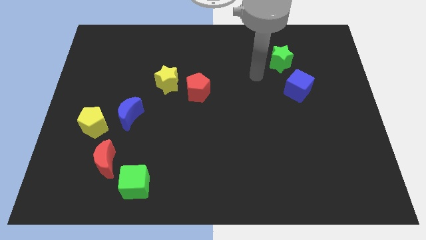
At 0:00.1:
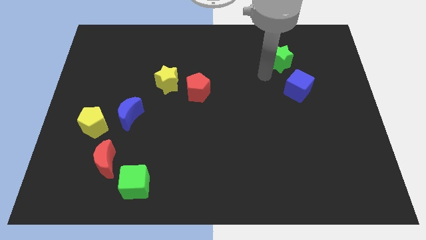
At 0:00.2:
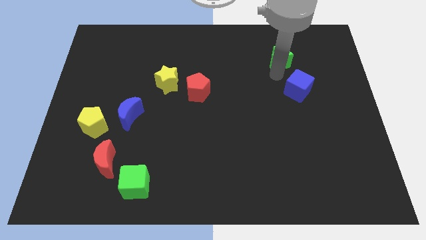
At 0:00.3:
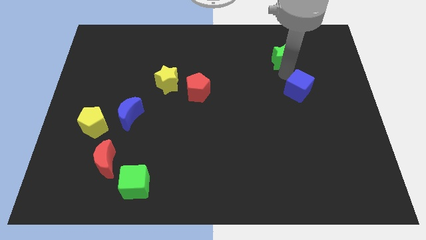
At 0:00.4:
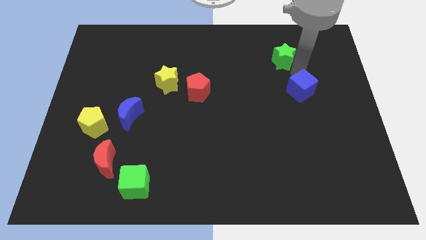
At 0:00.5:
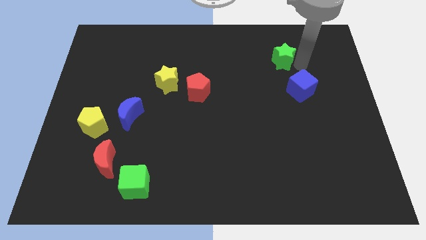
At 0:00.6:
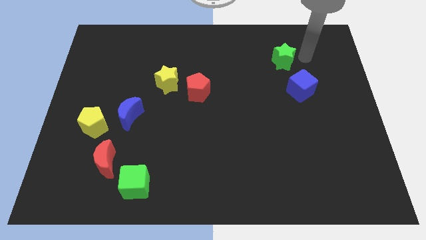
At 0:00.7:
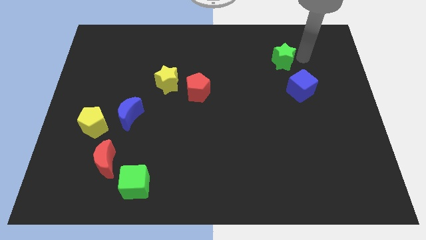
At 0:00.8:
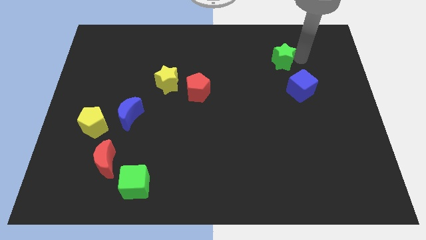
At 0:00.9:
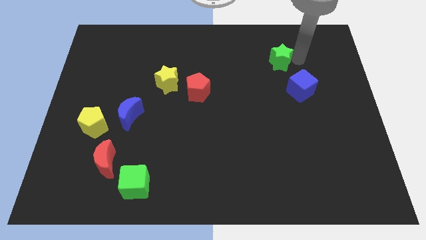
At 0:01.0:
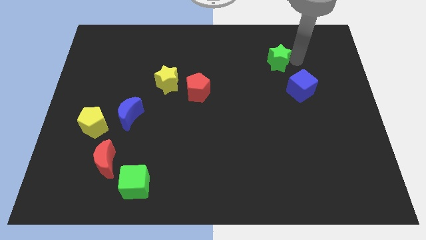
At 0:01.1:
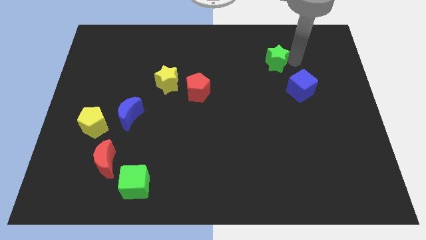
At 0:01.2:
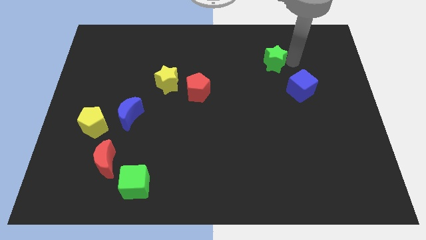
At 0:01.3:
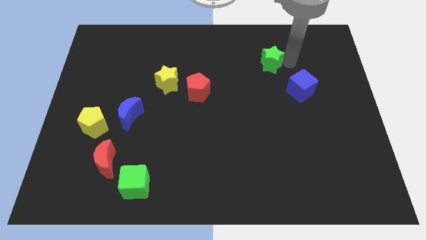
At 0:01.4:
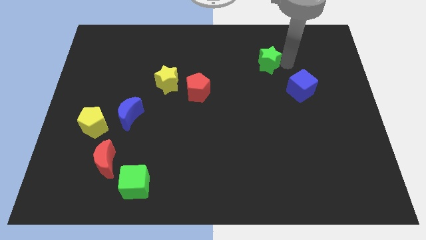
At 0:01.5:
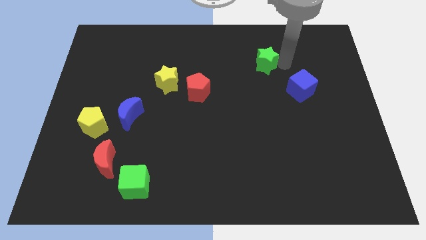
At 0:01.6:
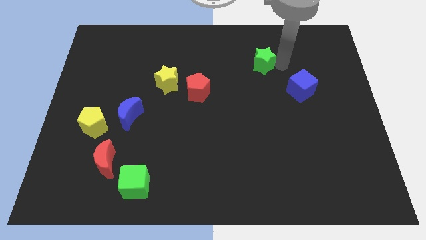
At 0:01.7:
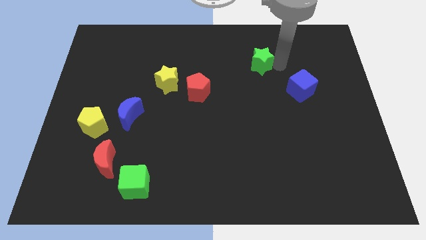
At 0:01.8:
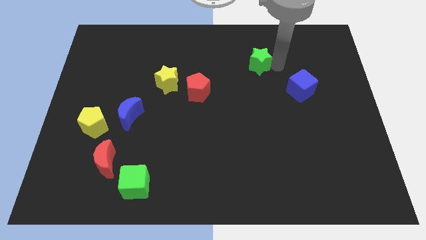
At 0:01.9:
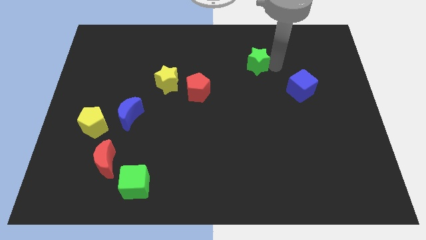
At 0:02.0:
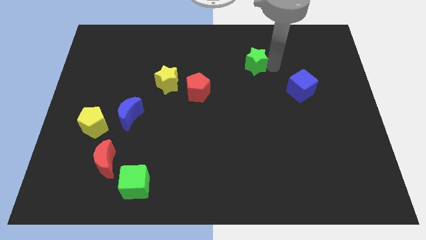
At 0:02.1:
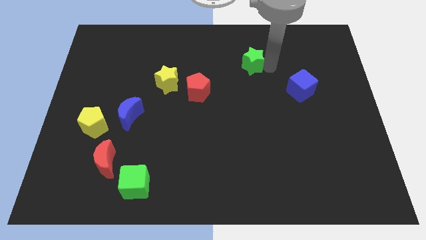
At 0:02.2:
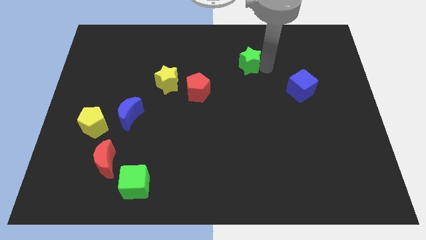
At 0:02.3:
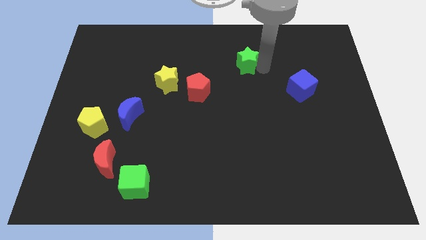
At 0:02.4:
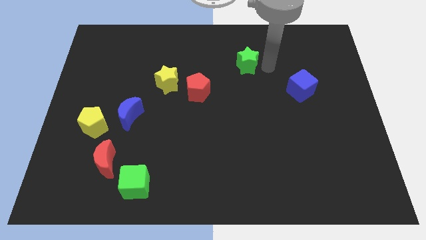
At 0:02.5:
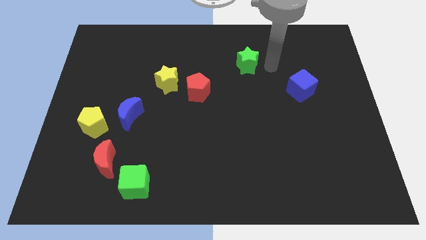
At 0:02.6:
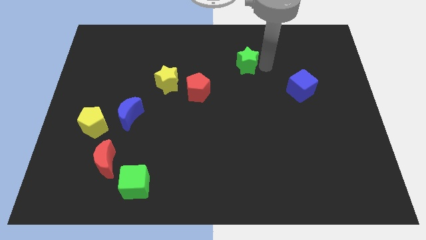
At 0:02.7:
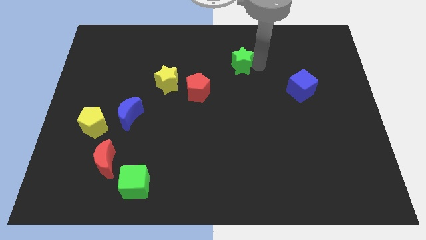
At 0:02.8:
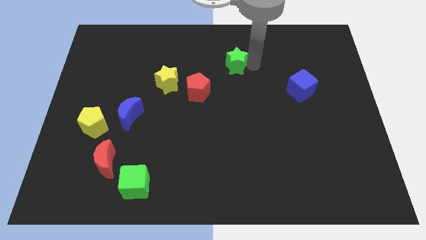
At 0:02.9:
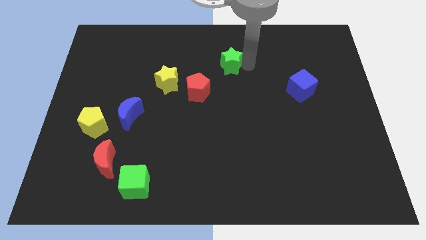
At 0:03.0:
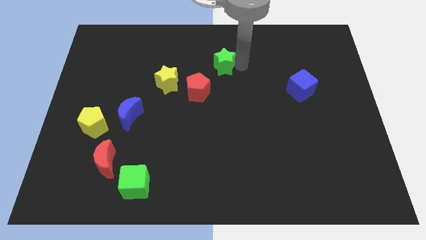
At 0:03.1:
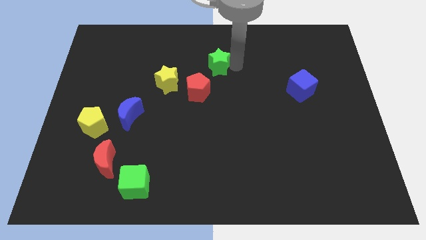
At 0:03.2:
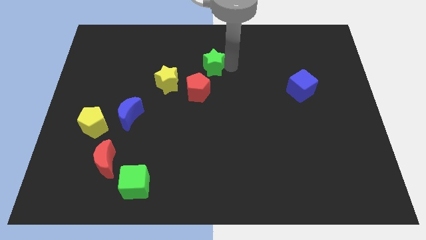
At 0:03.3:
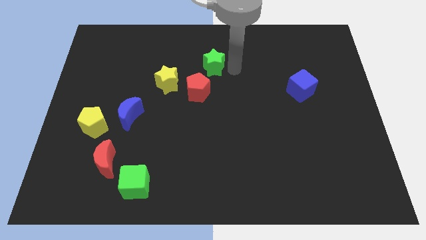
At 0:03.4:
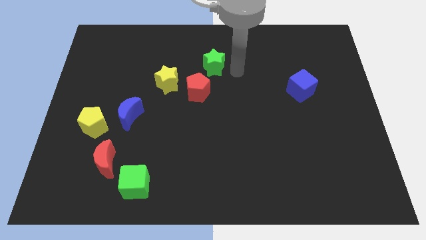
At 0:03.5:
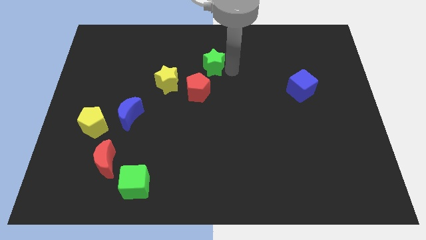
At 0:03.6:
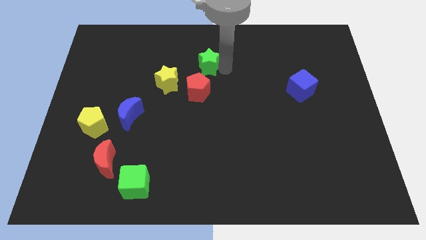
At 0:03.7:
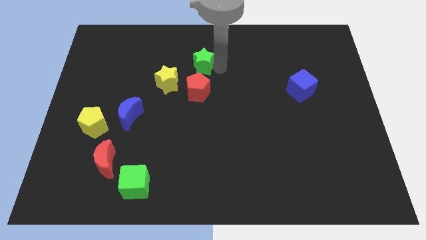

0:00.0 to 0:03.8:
slide the green star to the left

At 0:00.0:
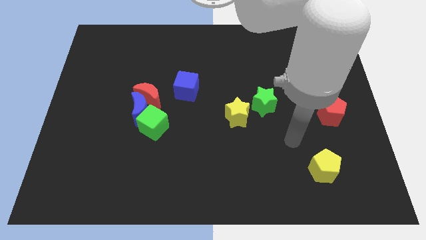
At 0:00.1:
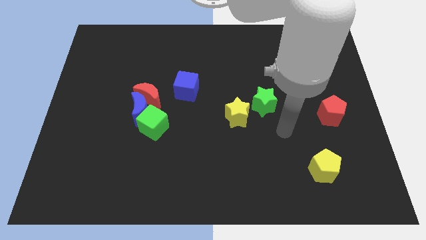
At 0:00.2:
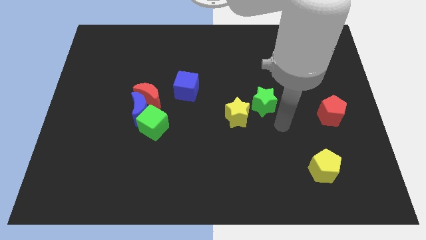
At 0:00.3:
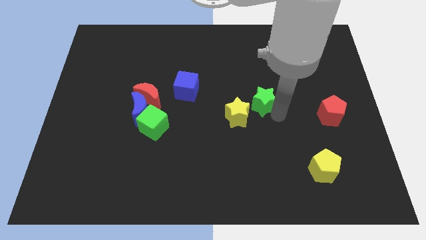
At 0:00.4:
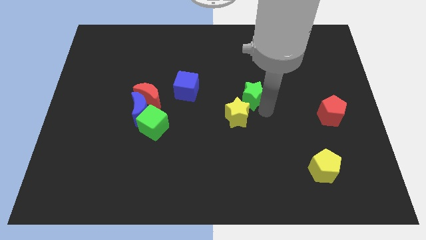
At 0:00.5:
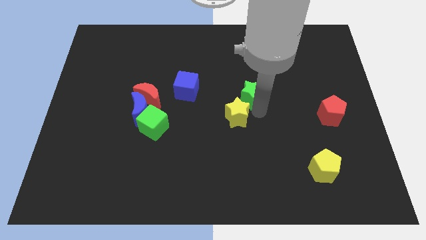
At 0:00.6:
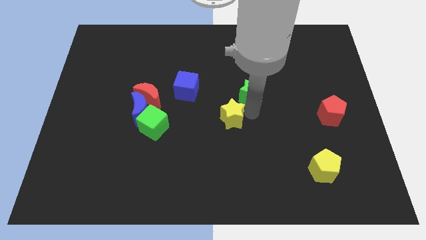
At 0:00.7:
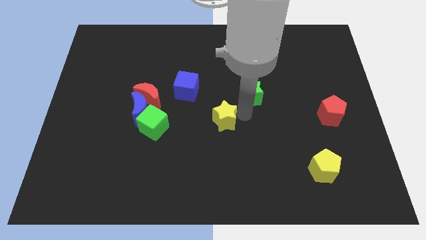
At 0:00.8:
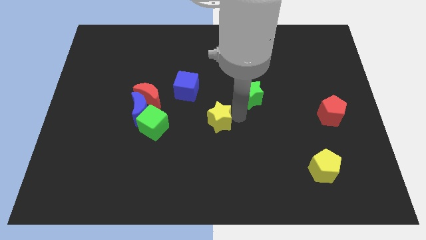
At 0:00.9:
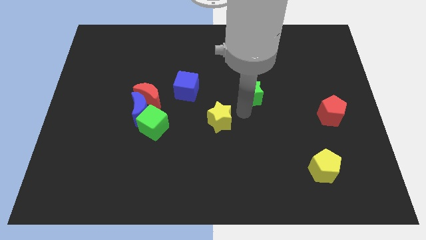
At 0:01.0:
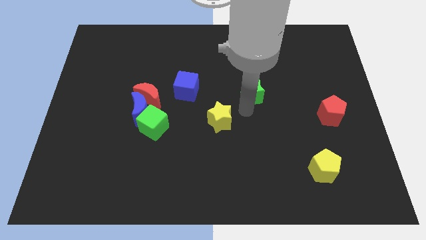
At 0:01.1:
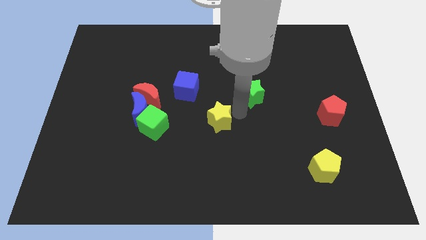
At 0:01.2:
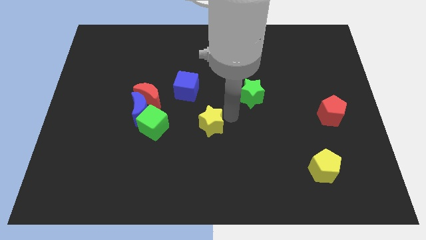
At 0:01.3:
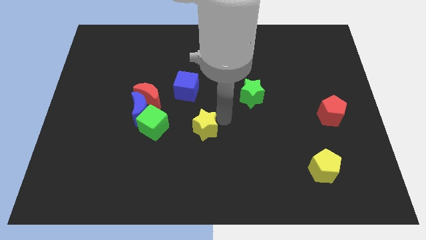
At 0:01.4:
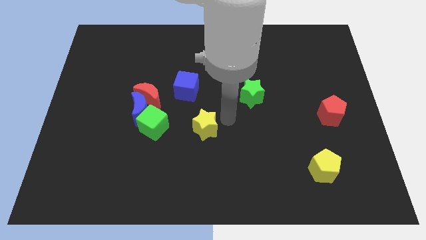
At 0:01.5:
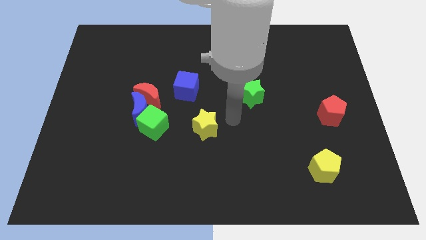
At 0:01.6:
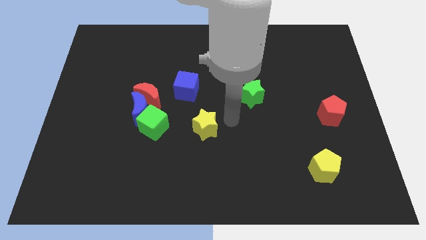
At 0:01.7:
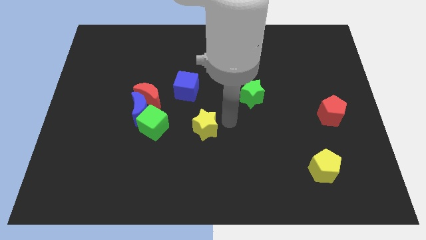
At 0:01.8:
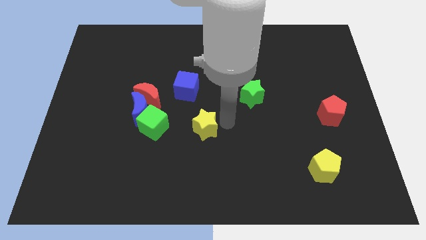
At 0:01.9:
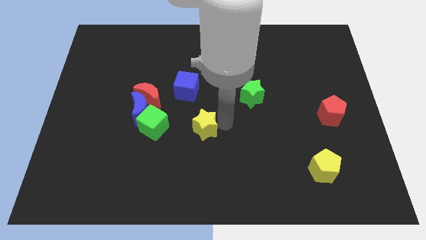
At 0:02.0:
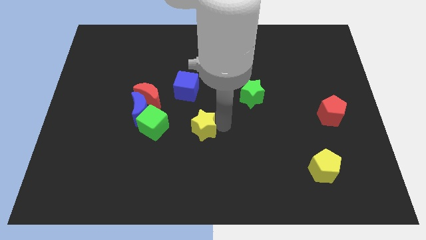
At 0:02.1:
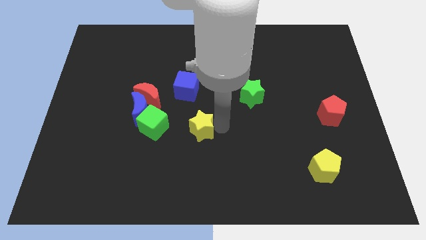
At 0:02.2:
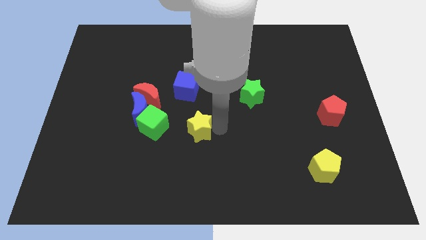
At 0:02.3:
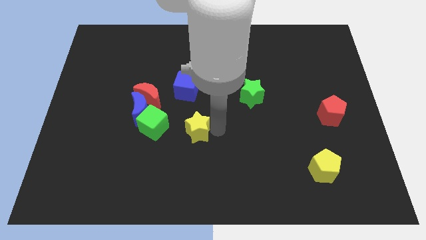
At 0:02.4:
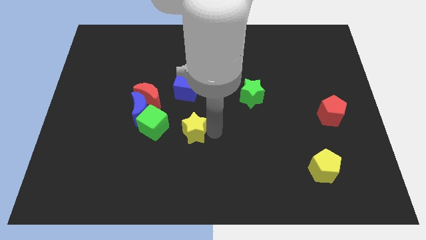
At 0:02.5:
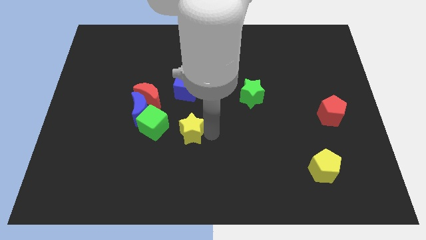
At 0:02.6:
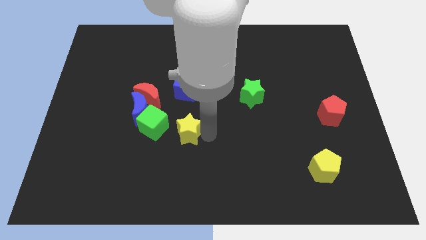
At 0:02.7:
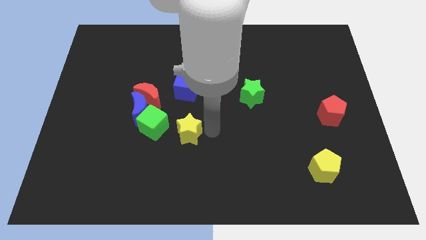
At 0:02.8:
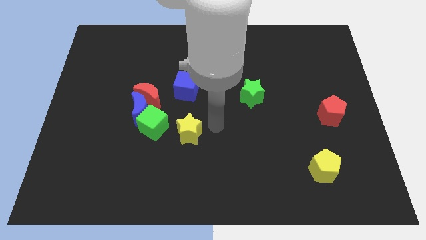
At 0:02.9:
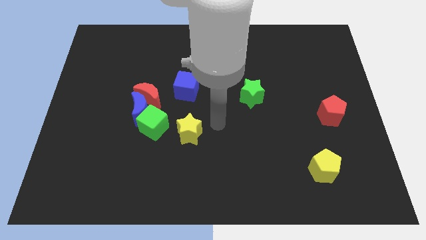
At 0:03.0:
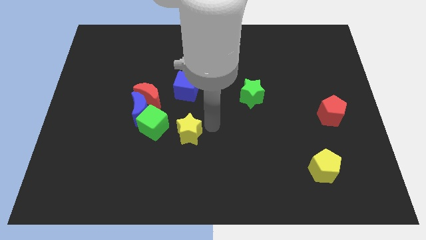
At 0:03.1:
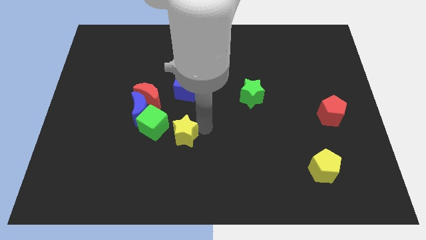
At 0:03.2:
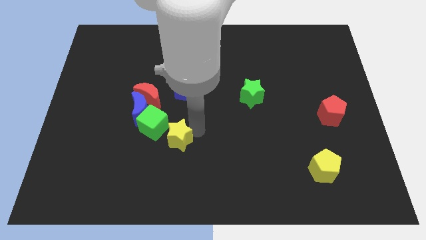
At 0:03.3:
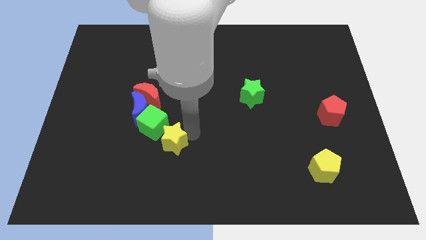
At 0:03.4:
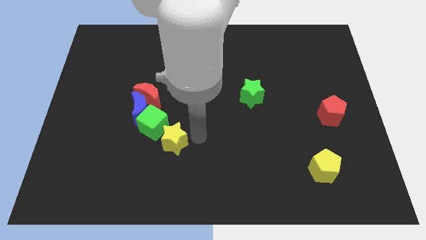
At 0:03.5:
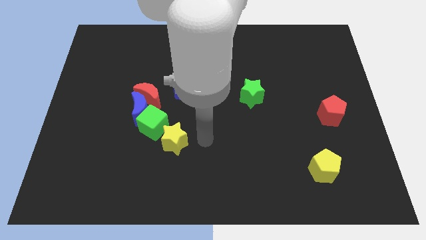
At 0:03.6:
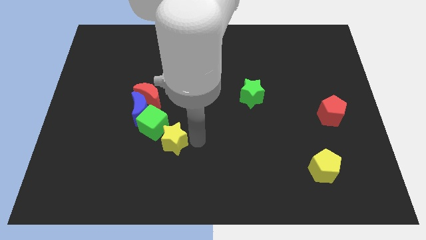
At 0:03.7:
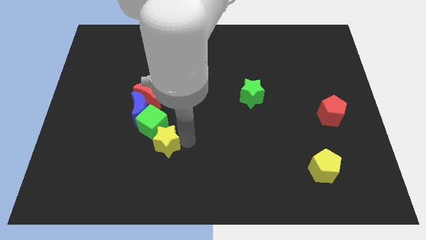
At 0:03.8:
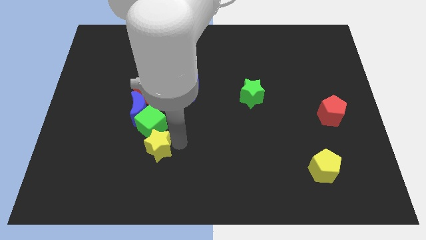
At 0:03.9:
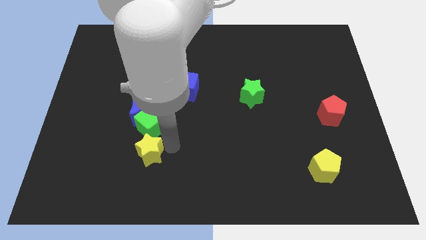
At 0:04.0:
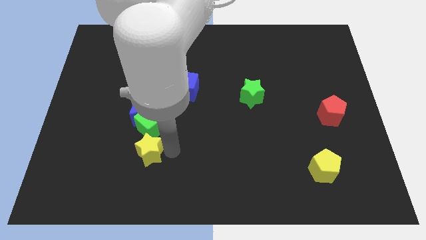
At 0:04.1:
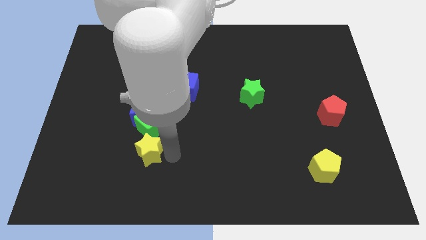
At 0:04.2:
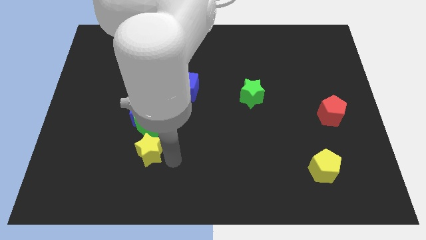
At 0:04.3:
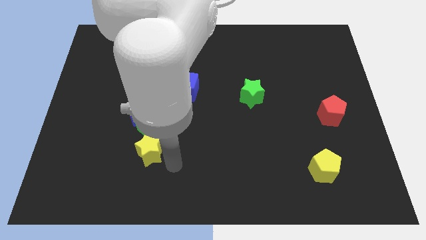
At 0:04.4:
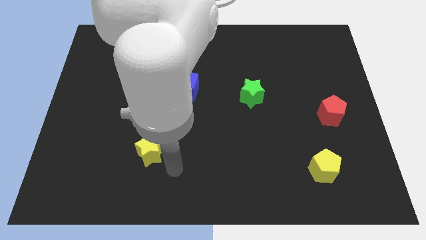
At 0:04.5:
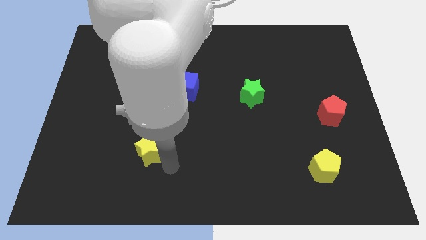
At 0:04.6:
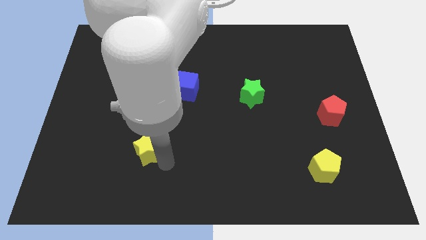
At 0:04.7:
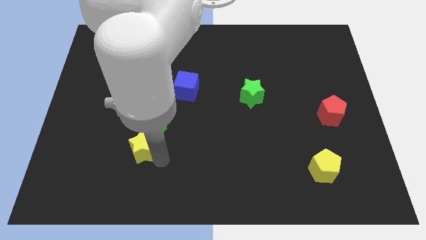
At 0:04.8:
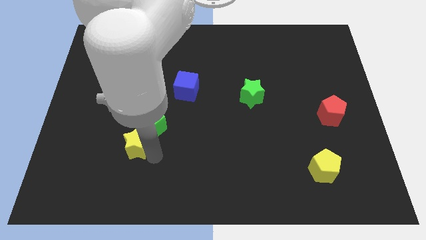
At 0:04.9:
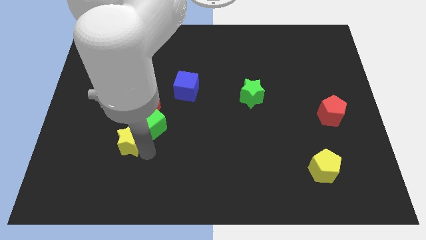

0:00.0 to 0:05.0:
move the yellow star to the left

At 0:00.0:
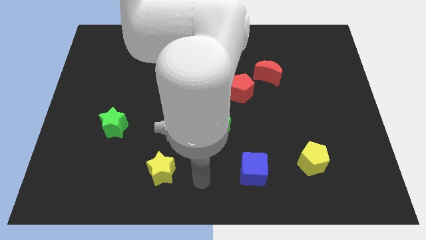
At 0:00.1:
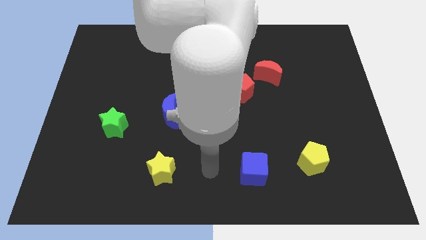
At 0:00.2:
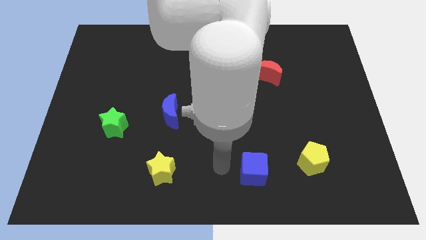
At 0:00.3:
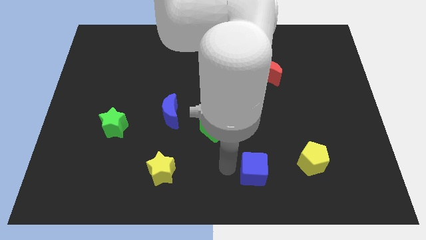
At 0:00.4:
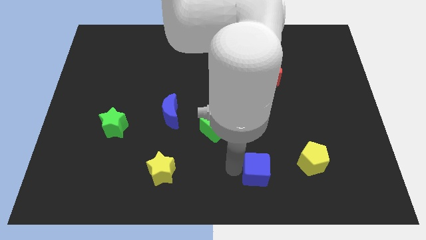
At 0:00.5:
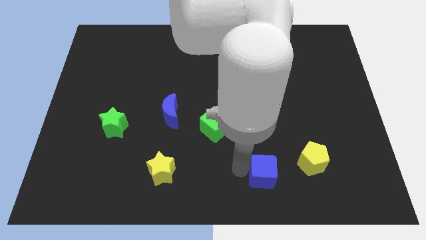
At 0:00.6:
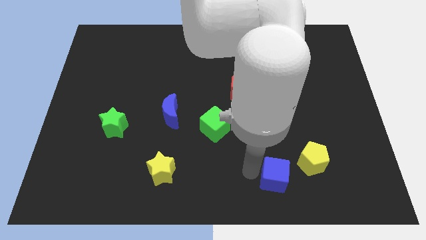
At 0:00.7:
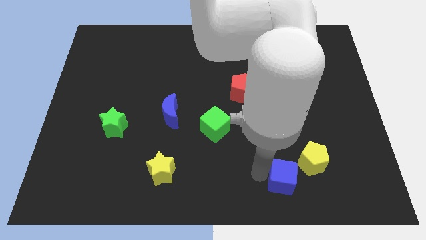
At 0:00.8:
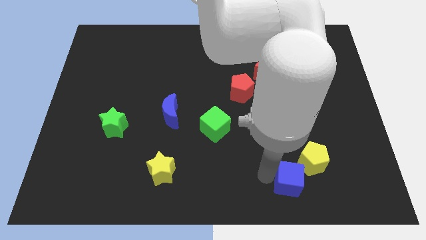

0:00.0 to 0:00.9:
slide the blue cube a bit to the right
